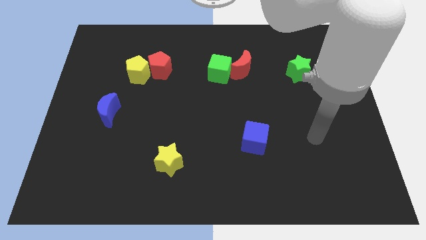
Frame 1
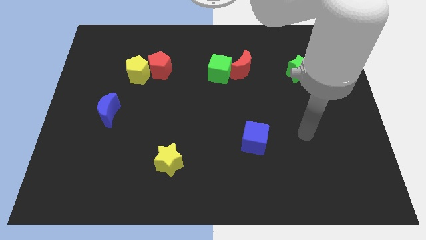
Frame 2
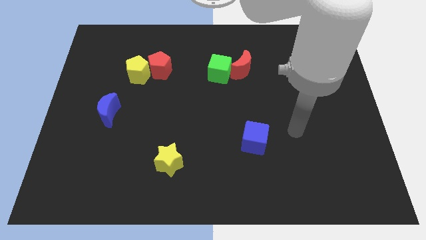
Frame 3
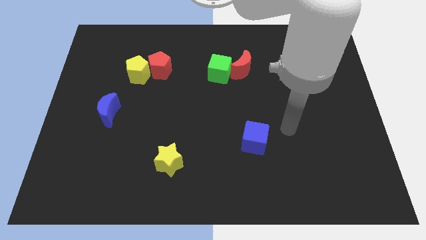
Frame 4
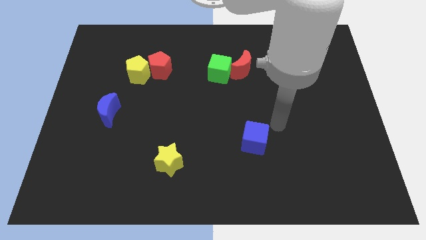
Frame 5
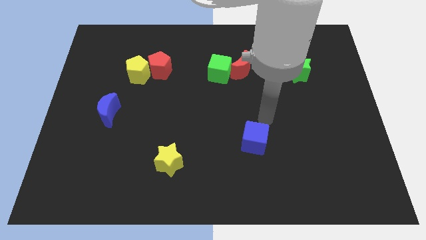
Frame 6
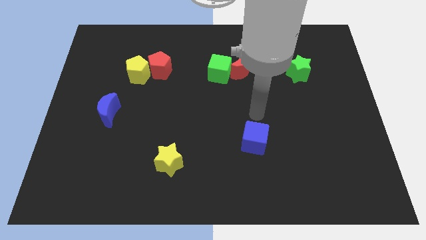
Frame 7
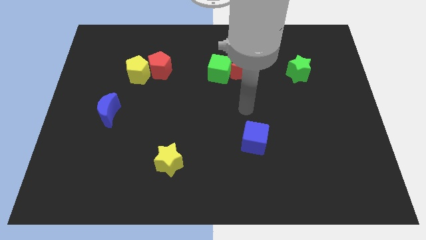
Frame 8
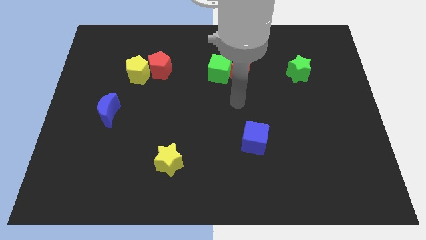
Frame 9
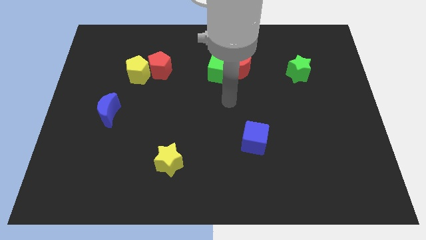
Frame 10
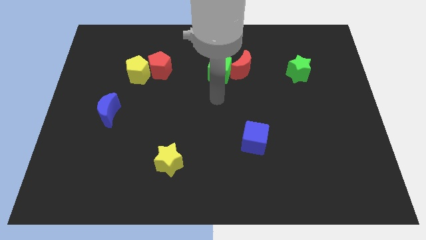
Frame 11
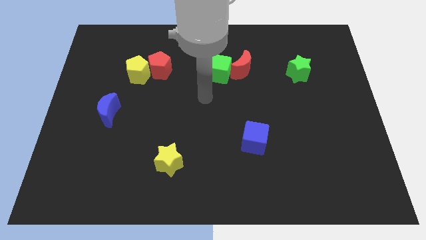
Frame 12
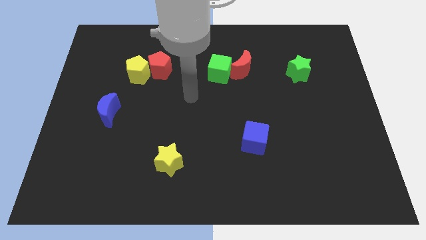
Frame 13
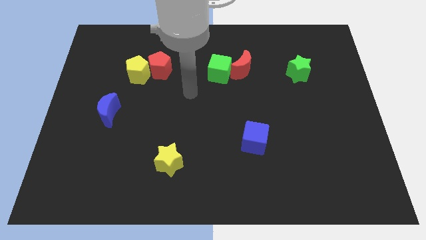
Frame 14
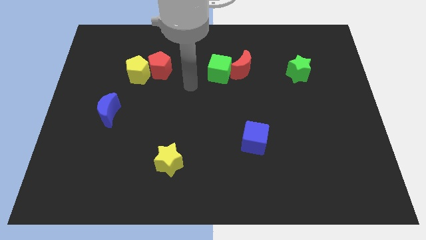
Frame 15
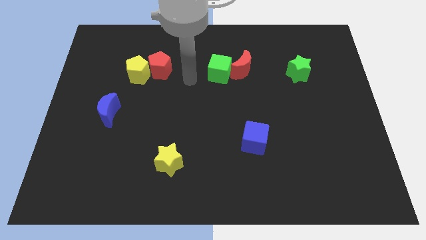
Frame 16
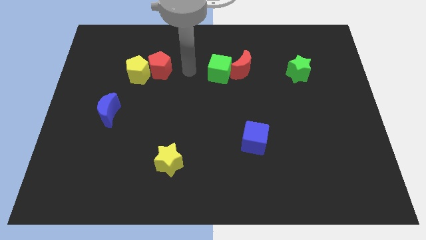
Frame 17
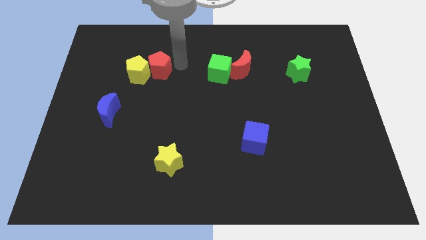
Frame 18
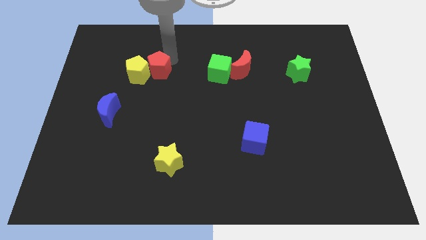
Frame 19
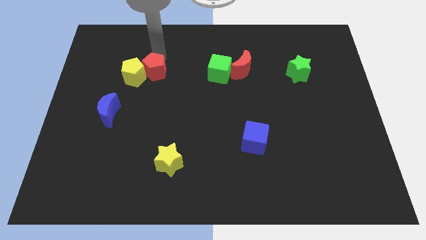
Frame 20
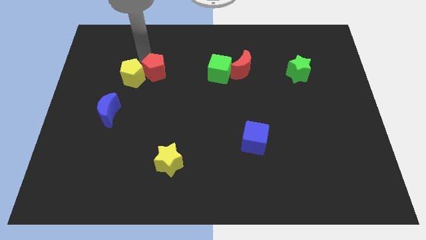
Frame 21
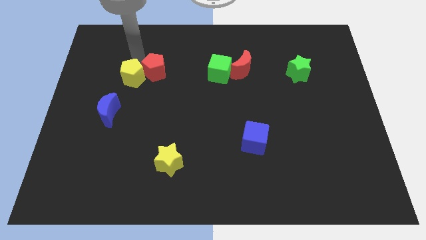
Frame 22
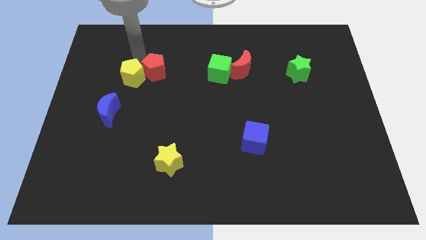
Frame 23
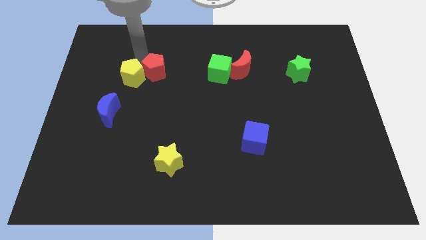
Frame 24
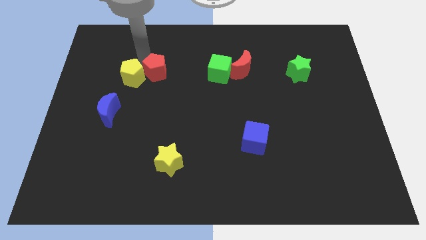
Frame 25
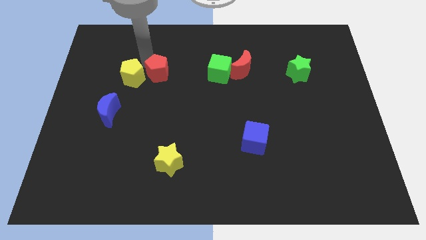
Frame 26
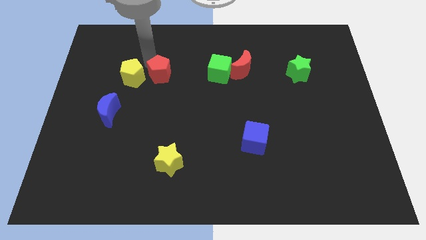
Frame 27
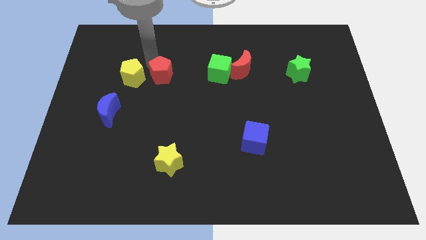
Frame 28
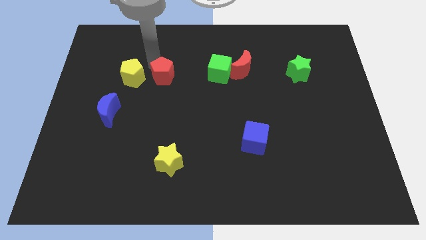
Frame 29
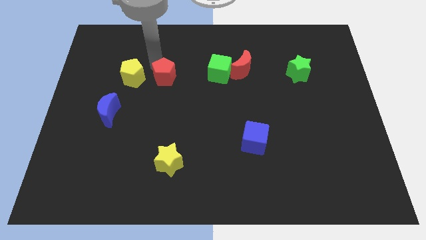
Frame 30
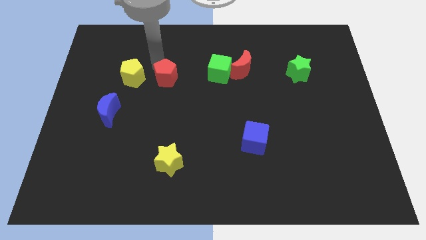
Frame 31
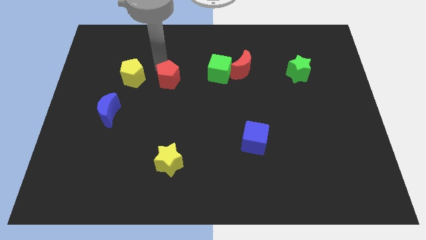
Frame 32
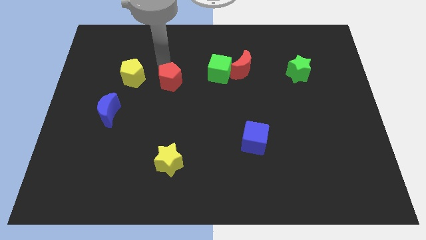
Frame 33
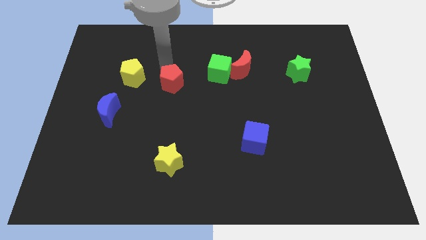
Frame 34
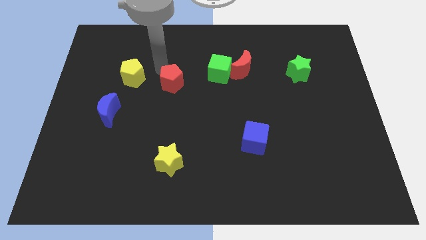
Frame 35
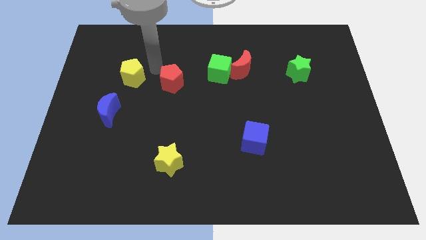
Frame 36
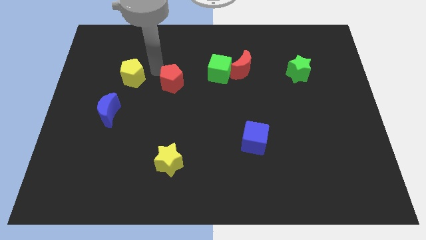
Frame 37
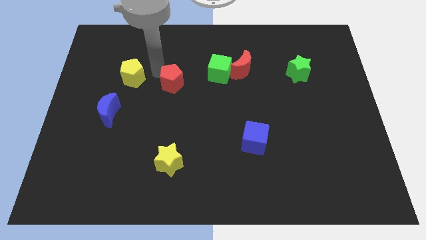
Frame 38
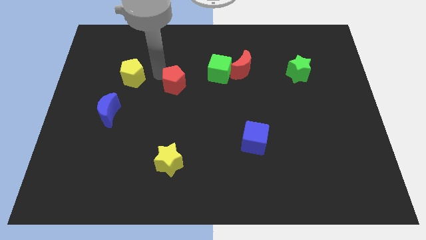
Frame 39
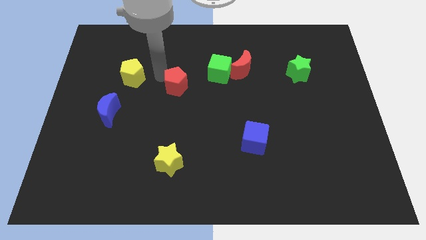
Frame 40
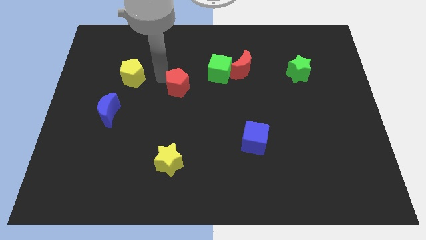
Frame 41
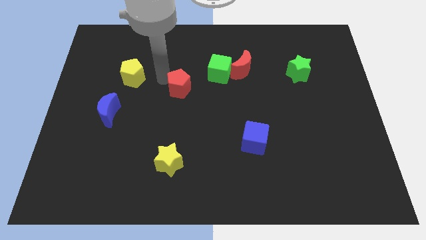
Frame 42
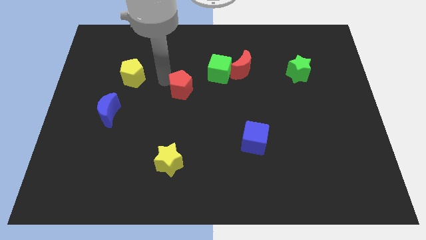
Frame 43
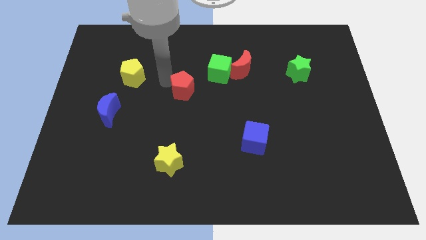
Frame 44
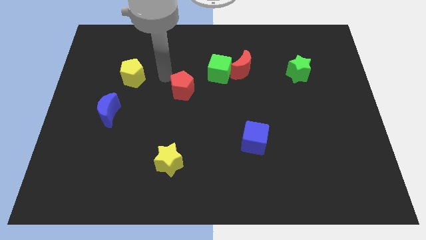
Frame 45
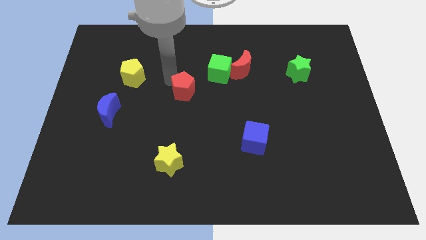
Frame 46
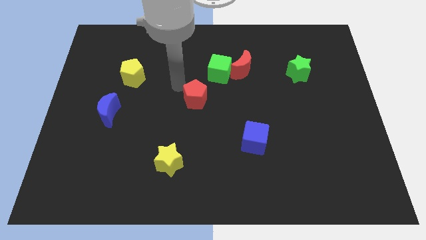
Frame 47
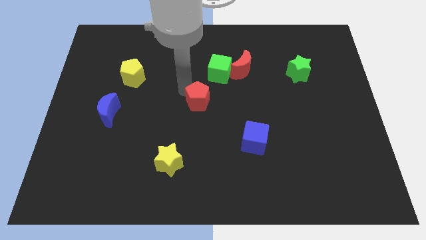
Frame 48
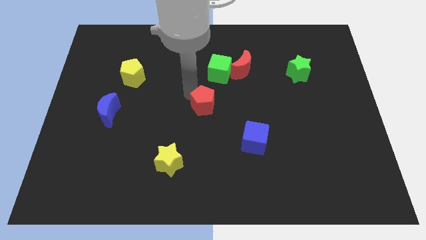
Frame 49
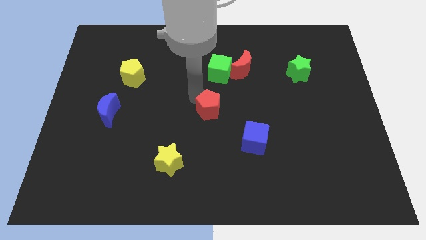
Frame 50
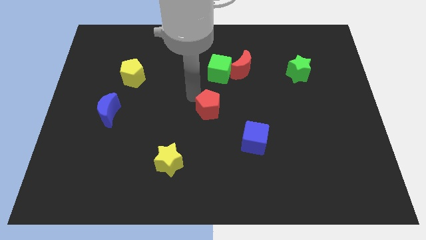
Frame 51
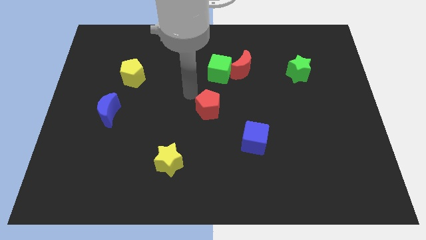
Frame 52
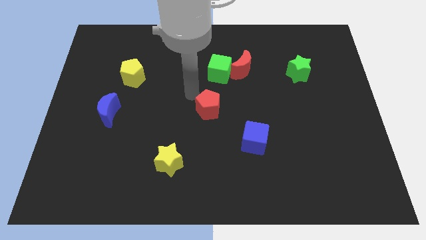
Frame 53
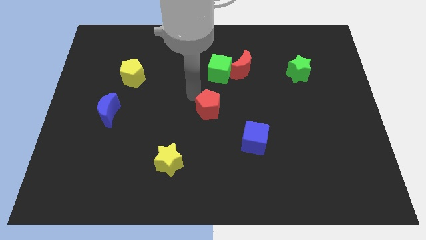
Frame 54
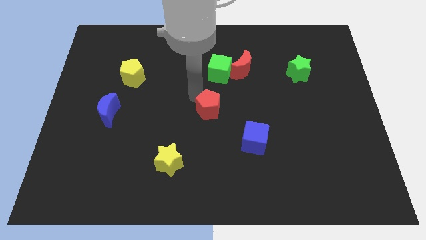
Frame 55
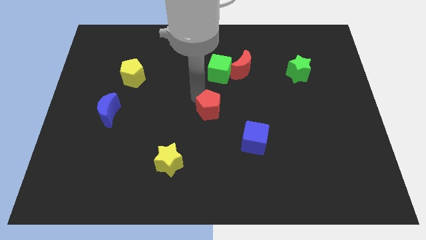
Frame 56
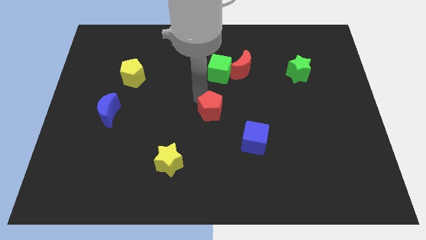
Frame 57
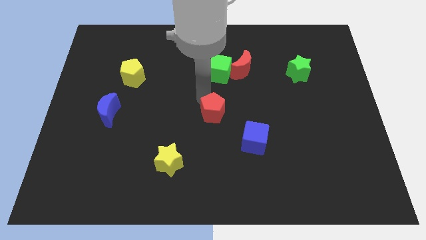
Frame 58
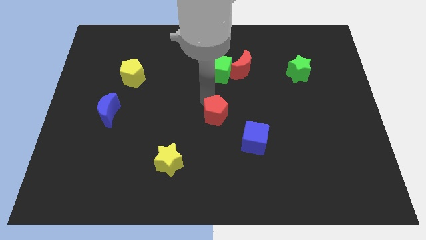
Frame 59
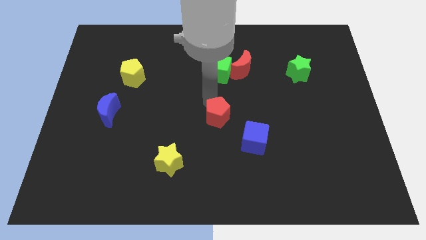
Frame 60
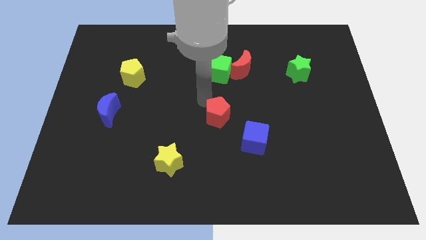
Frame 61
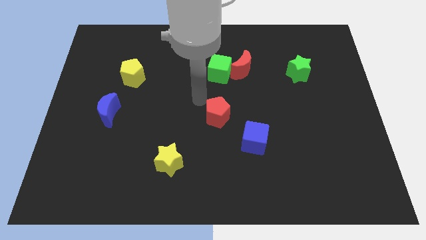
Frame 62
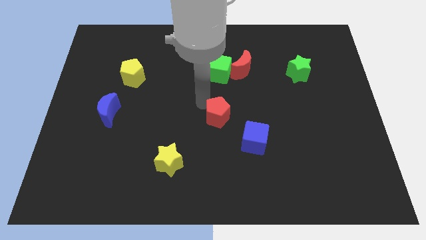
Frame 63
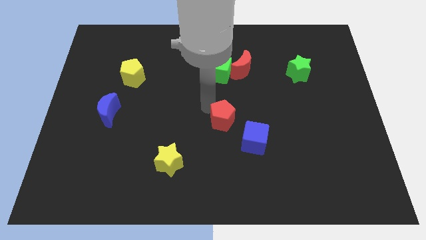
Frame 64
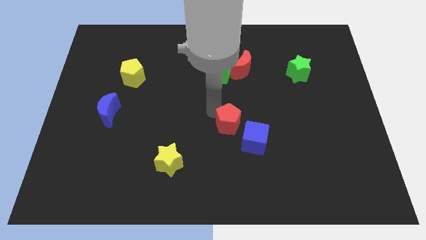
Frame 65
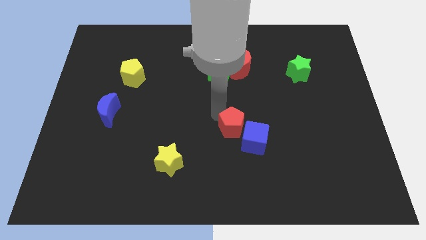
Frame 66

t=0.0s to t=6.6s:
slide the red pentagon next to the blue cube
